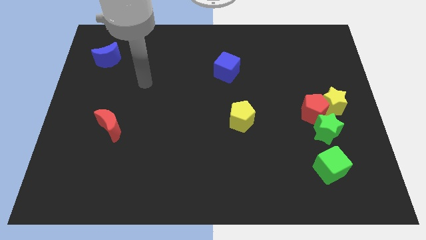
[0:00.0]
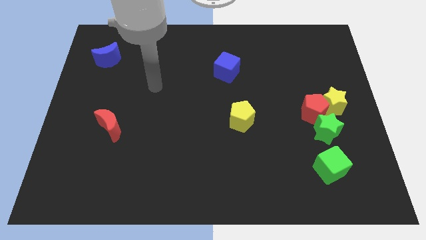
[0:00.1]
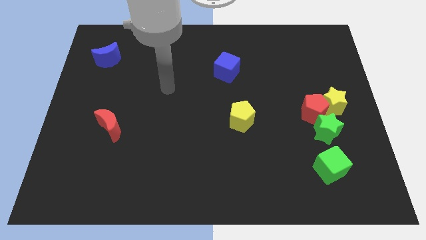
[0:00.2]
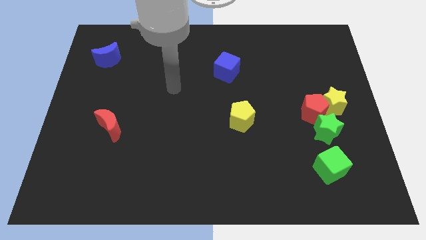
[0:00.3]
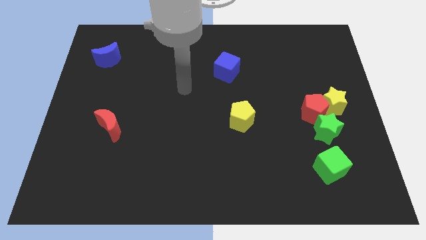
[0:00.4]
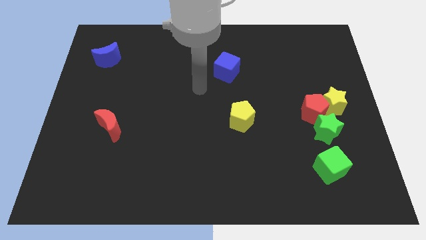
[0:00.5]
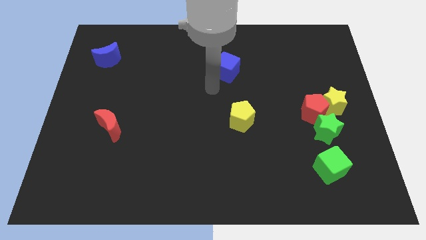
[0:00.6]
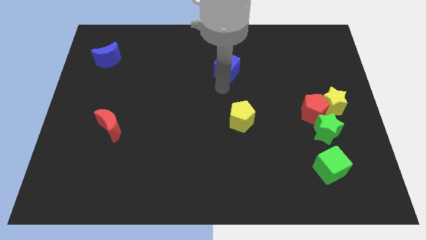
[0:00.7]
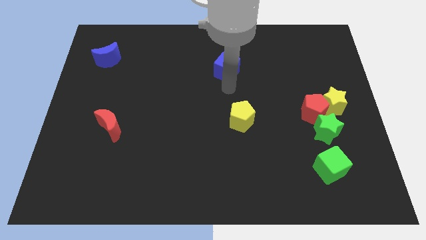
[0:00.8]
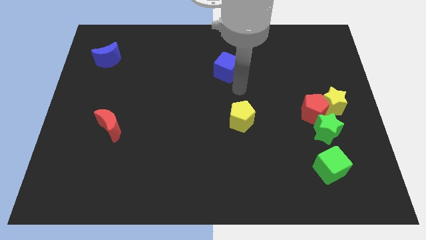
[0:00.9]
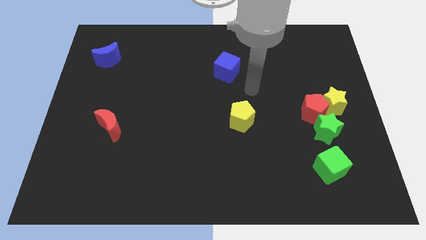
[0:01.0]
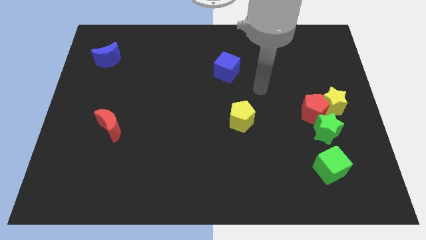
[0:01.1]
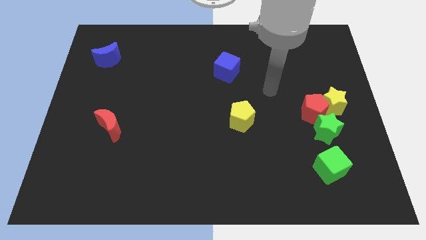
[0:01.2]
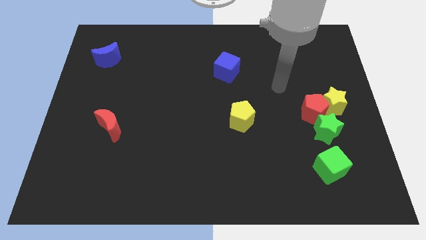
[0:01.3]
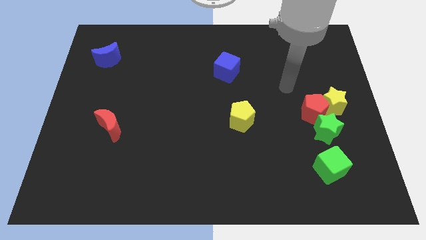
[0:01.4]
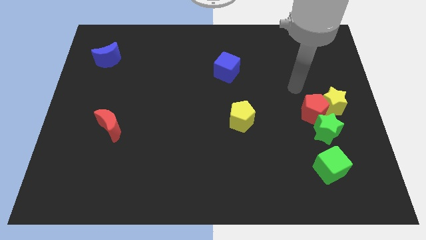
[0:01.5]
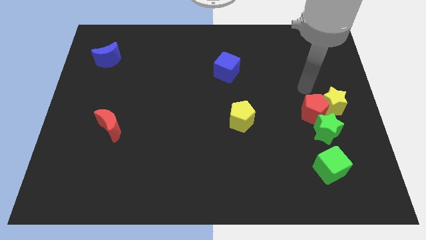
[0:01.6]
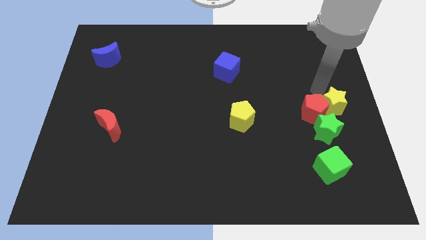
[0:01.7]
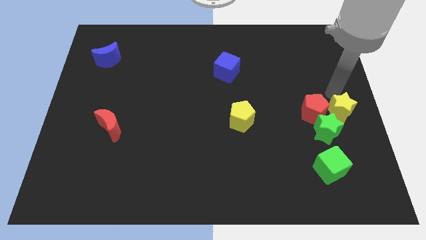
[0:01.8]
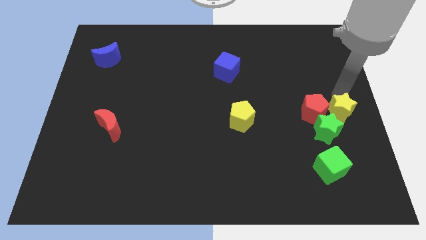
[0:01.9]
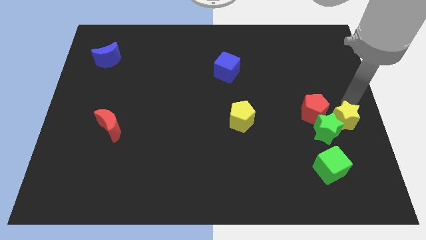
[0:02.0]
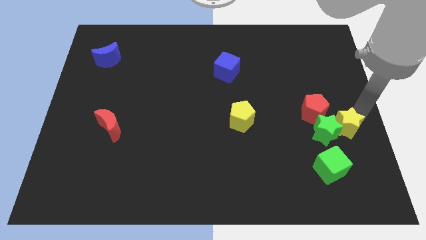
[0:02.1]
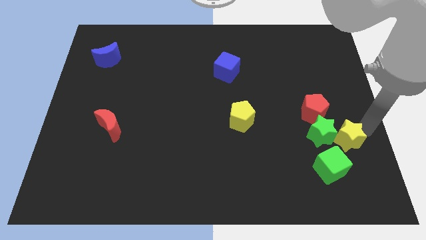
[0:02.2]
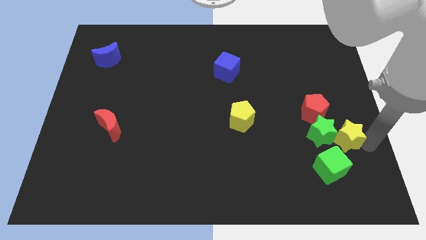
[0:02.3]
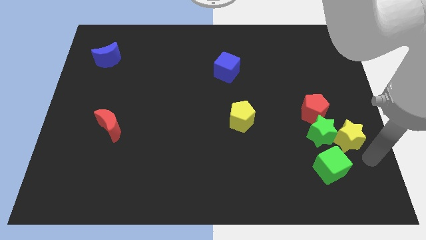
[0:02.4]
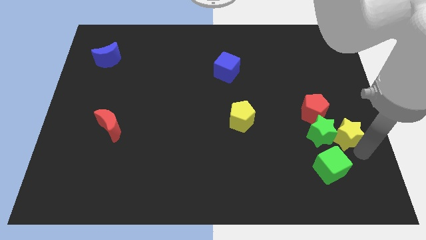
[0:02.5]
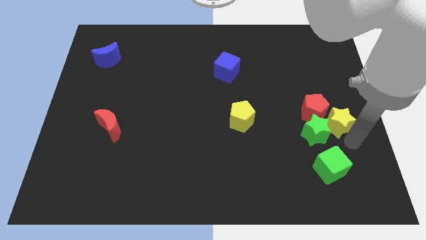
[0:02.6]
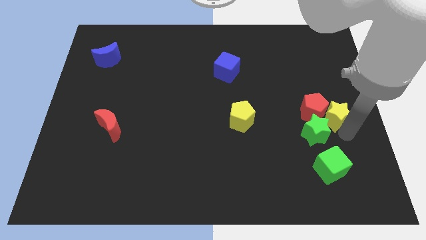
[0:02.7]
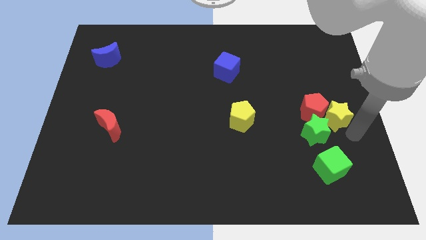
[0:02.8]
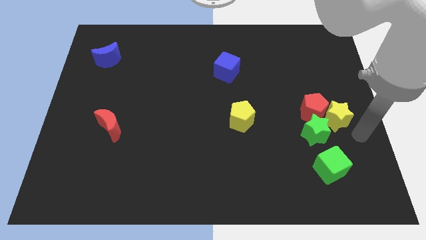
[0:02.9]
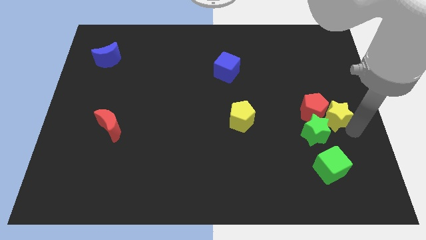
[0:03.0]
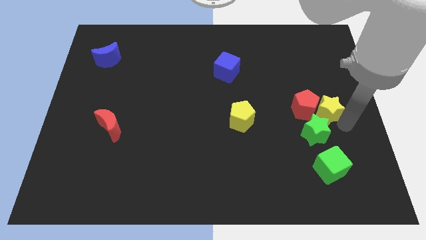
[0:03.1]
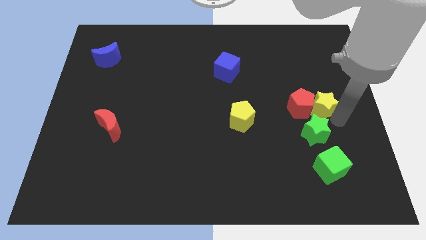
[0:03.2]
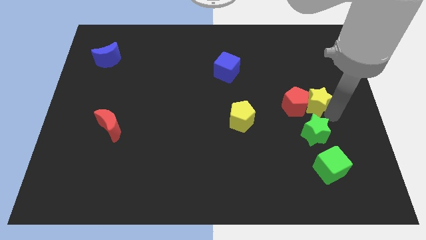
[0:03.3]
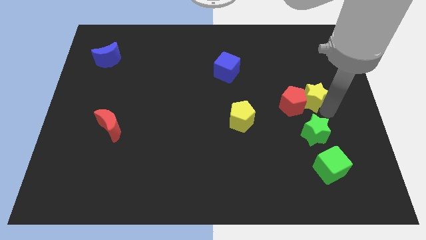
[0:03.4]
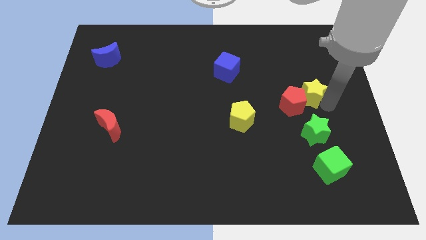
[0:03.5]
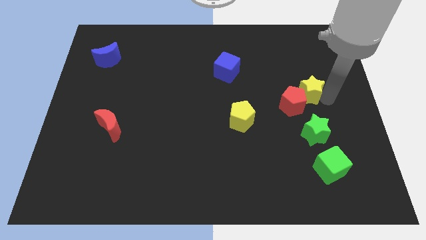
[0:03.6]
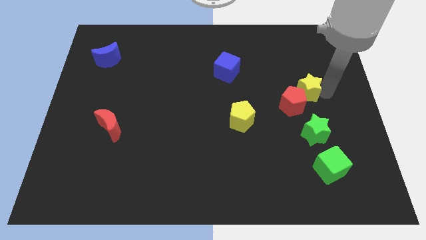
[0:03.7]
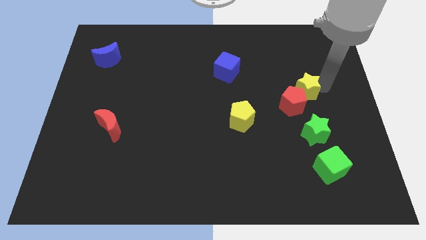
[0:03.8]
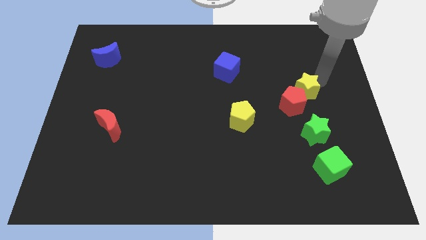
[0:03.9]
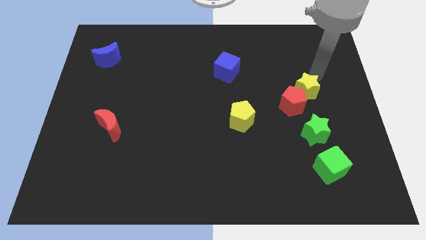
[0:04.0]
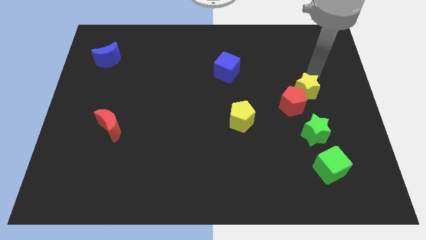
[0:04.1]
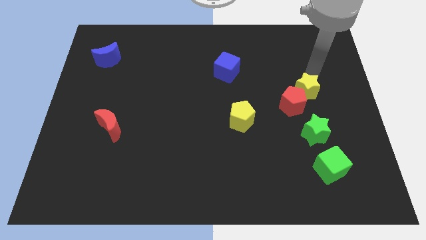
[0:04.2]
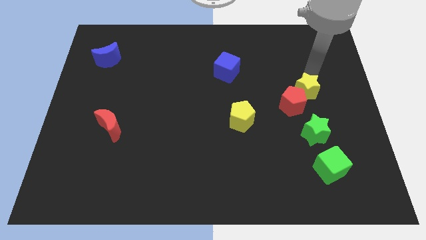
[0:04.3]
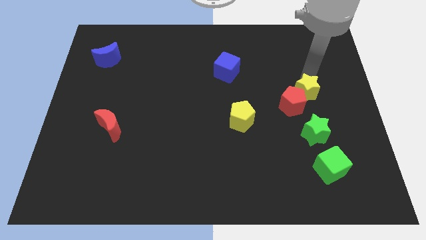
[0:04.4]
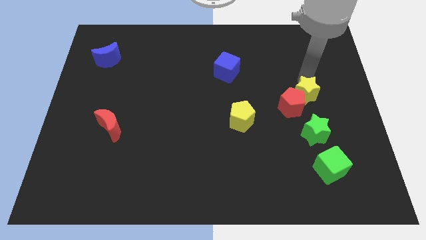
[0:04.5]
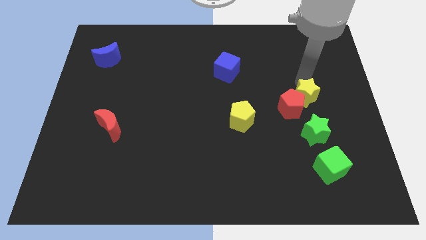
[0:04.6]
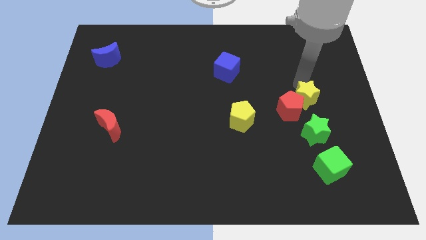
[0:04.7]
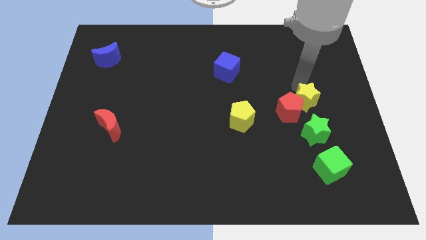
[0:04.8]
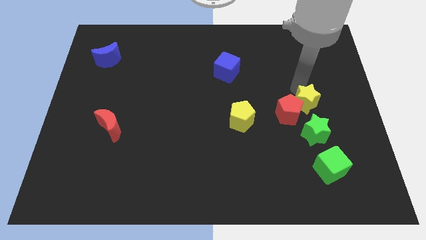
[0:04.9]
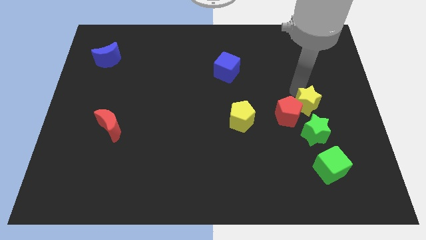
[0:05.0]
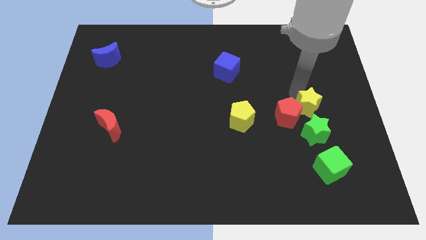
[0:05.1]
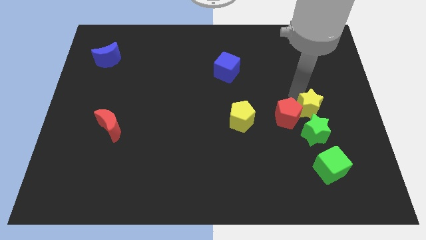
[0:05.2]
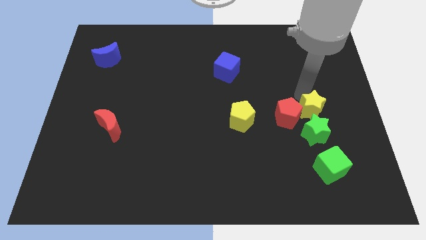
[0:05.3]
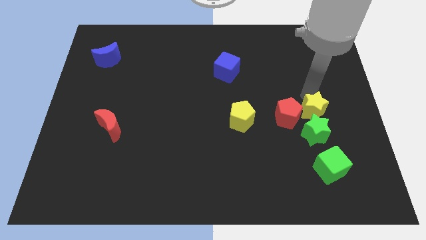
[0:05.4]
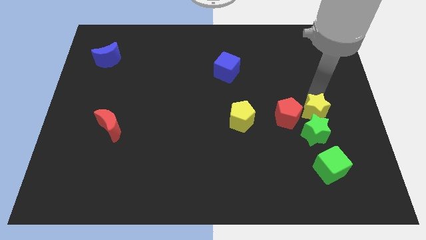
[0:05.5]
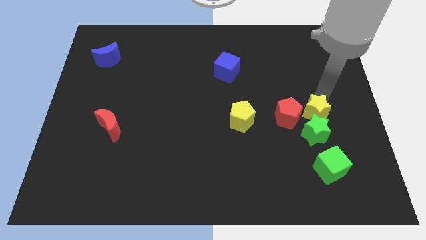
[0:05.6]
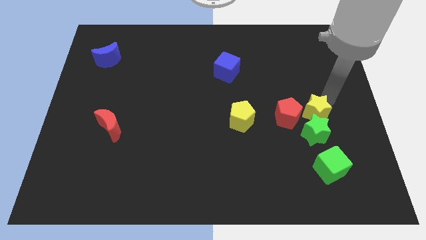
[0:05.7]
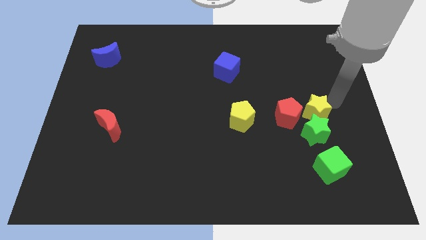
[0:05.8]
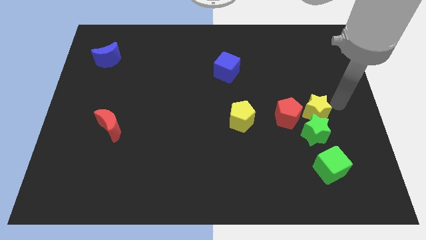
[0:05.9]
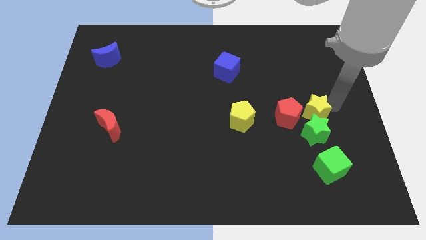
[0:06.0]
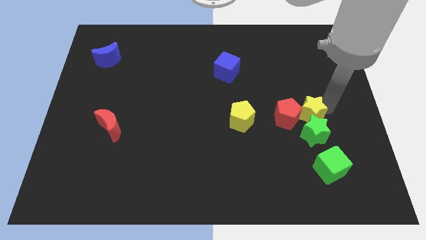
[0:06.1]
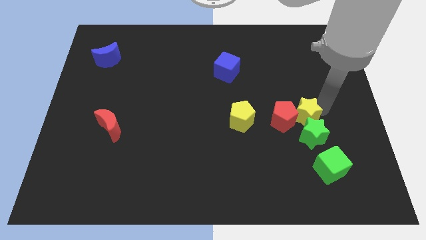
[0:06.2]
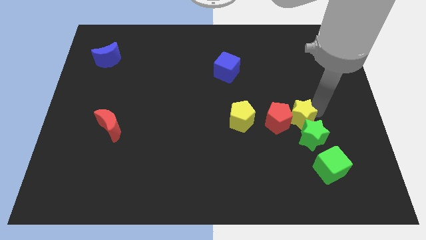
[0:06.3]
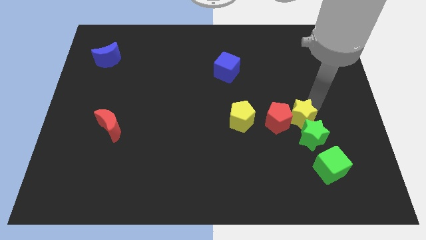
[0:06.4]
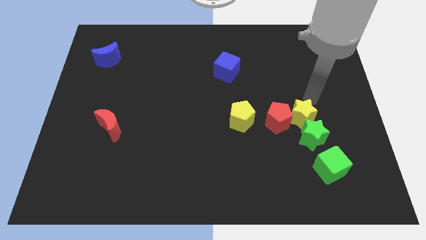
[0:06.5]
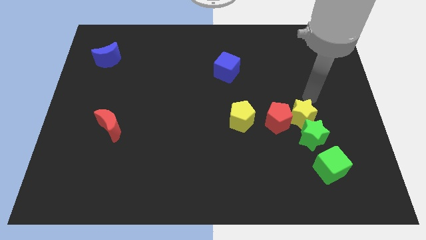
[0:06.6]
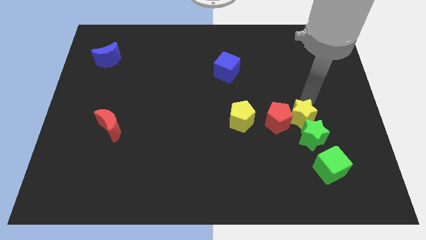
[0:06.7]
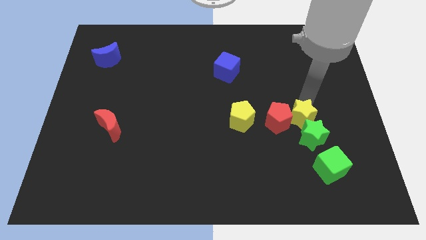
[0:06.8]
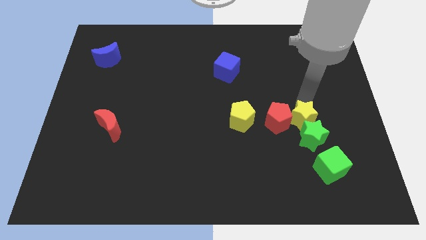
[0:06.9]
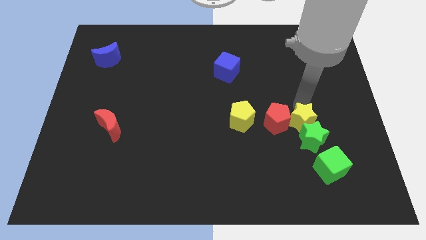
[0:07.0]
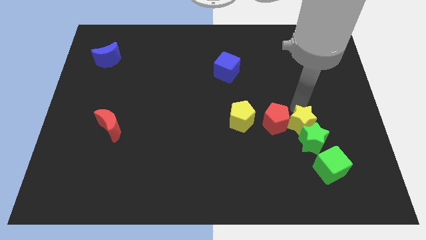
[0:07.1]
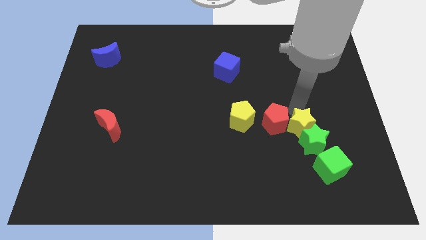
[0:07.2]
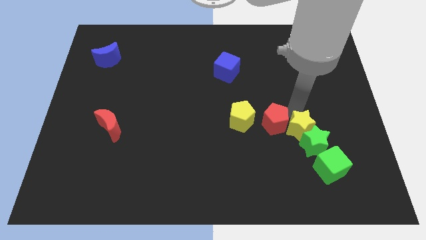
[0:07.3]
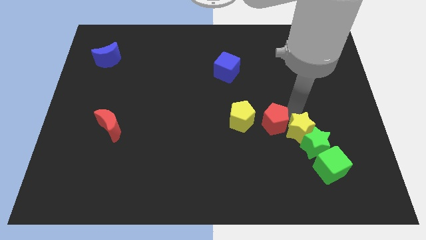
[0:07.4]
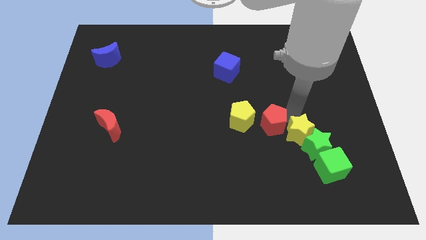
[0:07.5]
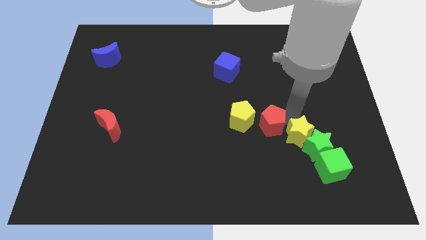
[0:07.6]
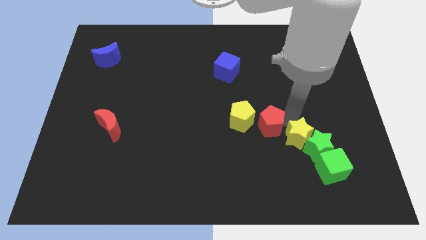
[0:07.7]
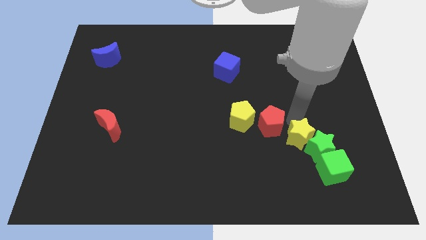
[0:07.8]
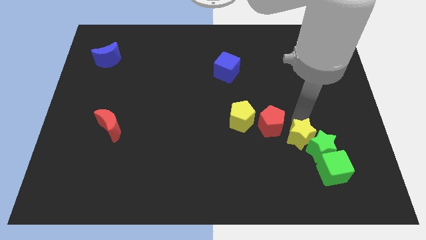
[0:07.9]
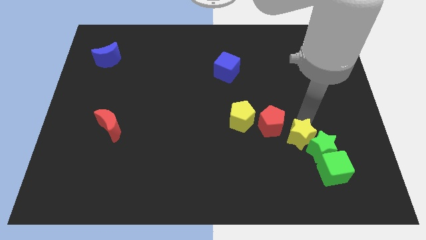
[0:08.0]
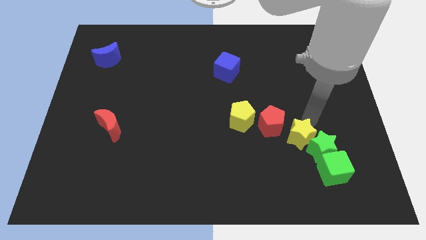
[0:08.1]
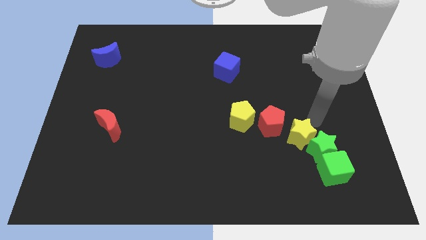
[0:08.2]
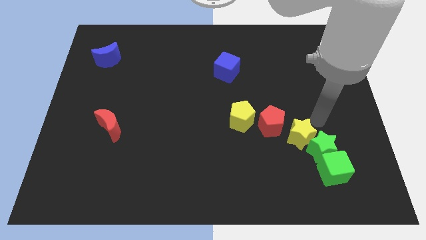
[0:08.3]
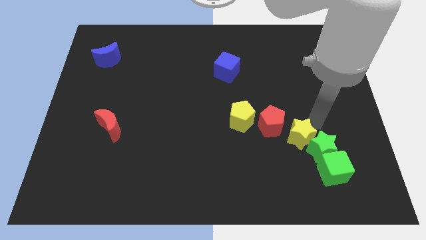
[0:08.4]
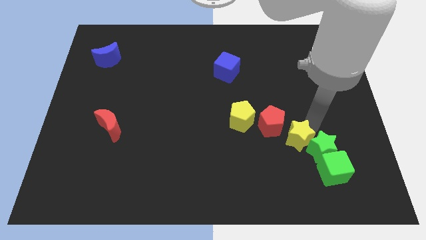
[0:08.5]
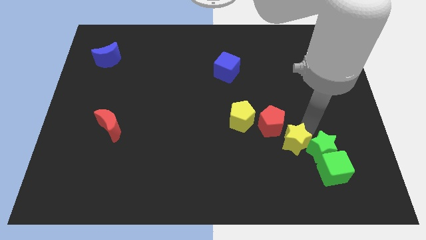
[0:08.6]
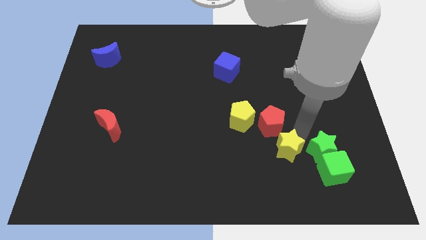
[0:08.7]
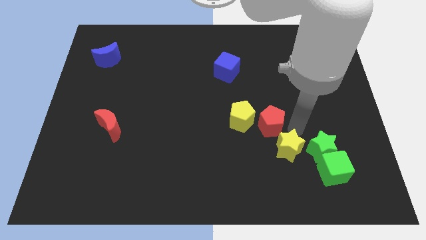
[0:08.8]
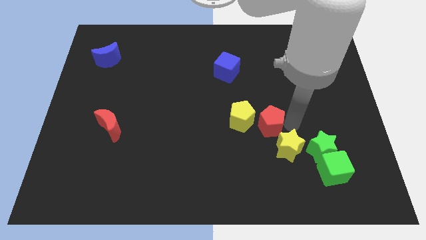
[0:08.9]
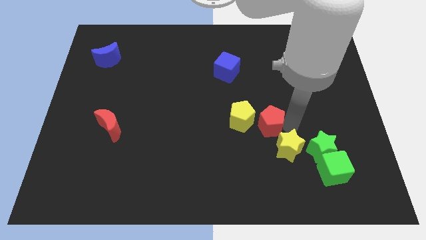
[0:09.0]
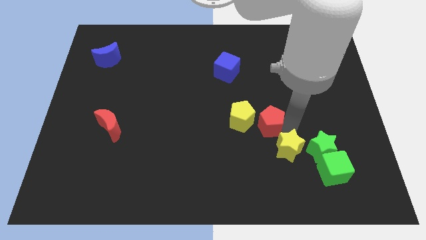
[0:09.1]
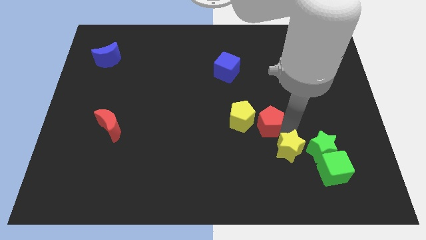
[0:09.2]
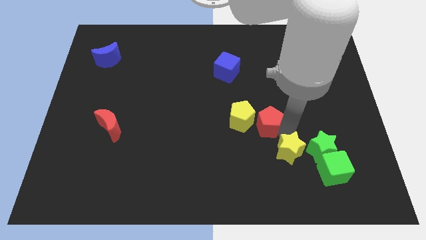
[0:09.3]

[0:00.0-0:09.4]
move the yellow star to the left of the green cube
